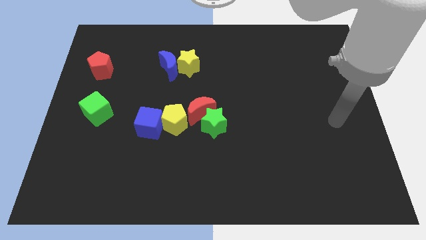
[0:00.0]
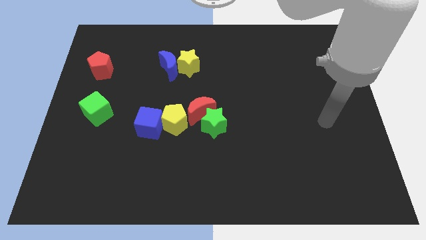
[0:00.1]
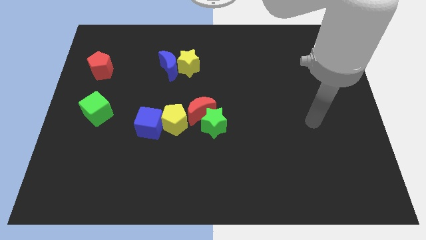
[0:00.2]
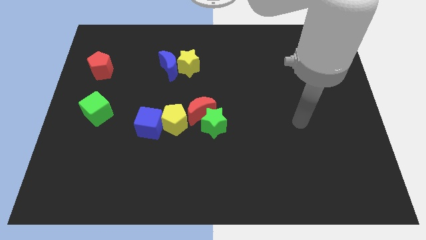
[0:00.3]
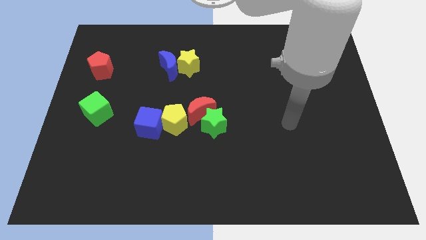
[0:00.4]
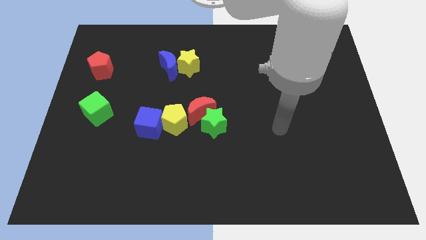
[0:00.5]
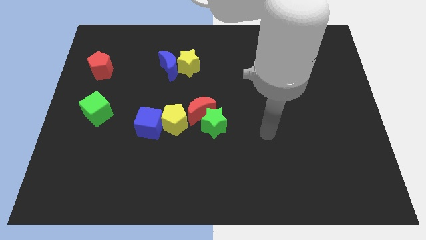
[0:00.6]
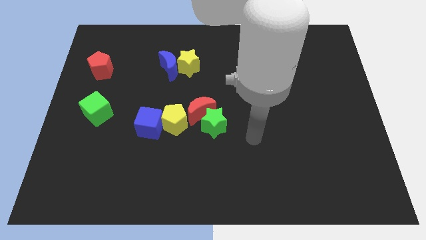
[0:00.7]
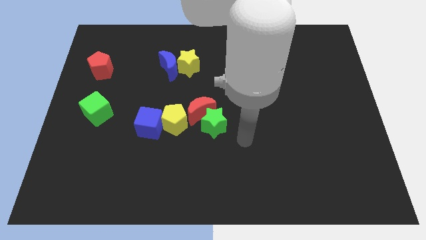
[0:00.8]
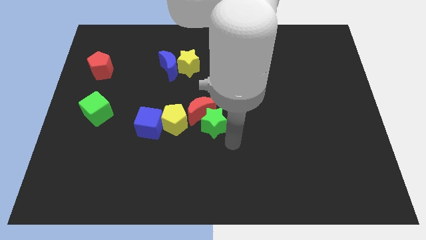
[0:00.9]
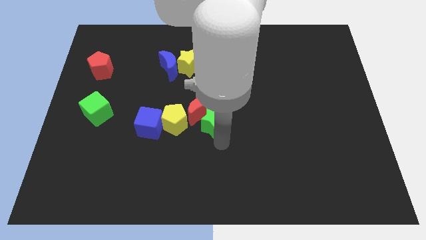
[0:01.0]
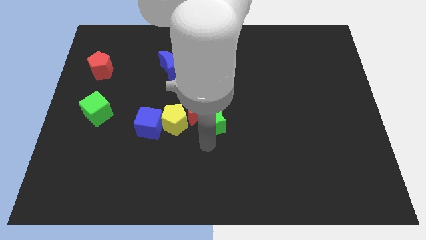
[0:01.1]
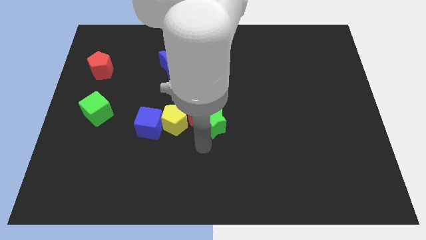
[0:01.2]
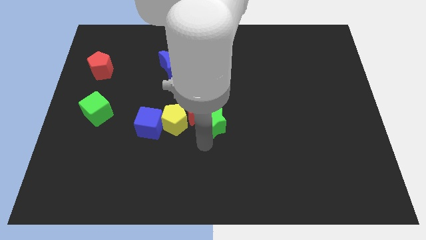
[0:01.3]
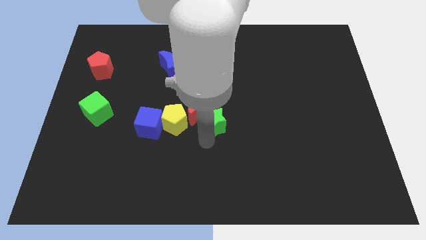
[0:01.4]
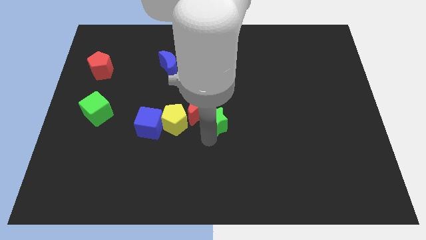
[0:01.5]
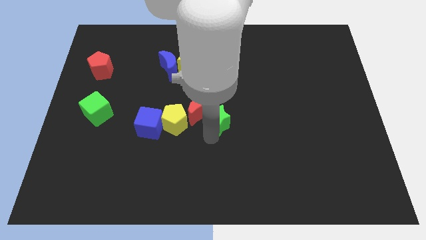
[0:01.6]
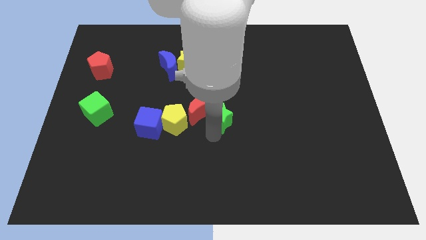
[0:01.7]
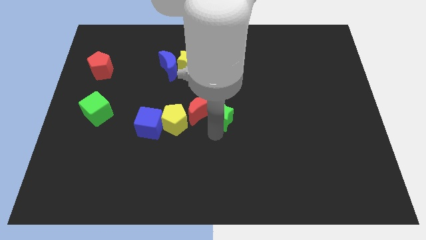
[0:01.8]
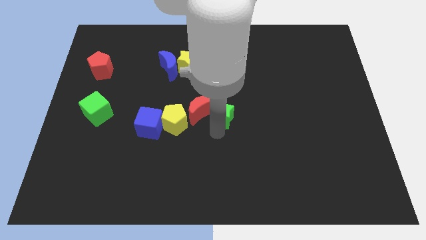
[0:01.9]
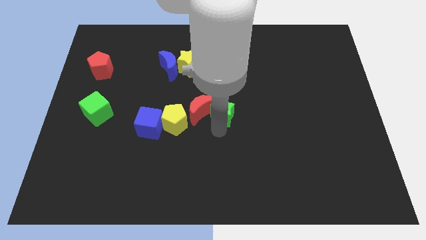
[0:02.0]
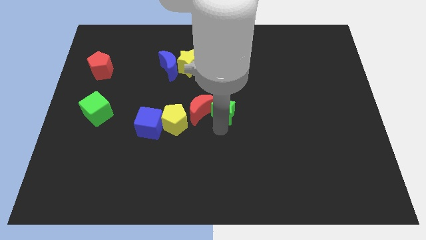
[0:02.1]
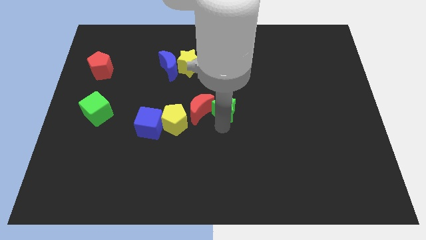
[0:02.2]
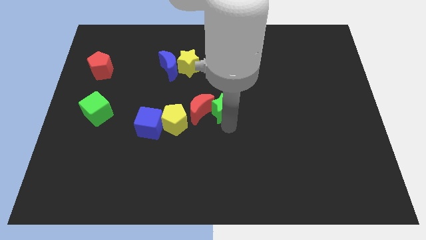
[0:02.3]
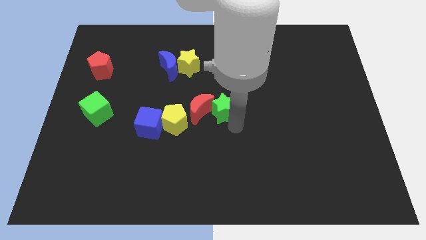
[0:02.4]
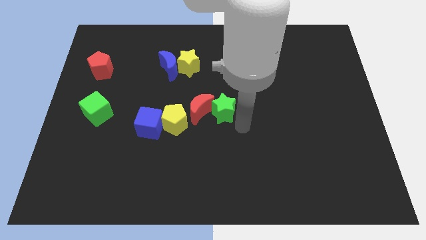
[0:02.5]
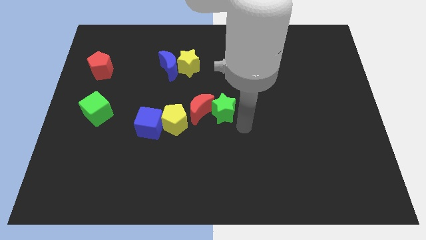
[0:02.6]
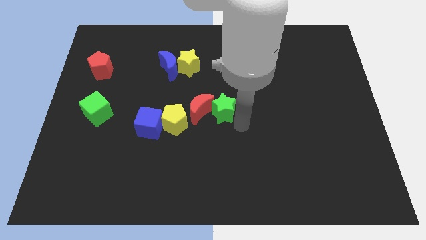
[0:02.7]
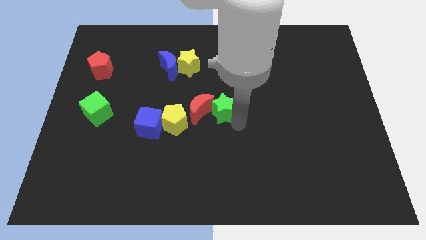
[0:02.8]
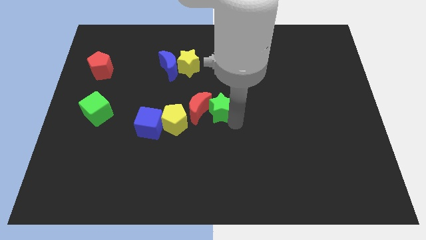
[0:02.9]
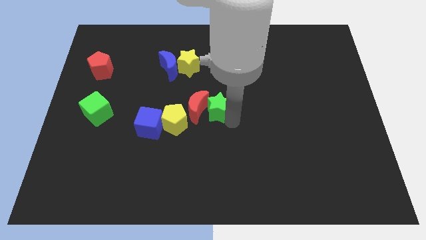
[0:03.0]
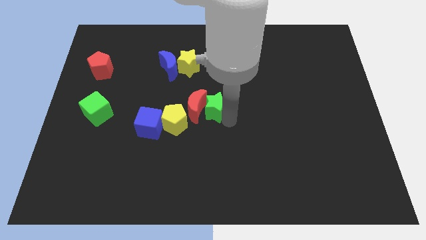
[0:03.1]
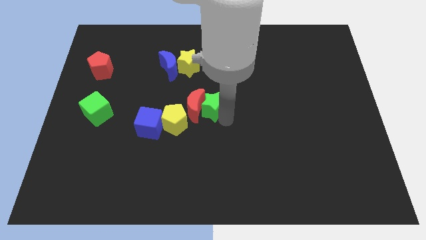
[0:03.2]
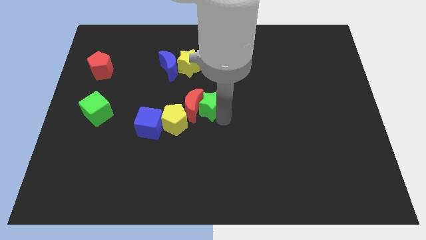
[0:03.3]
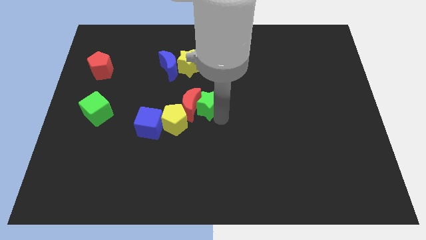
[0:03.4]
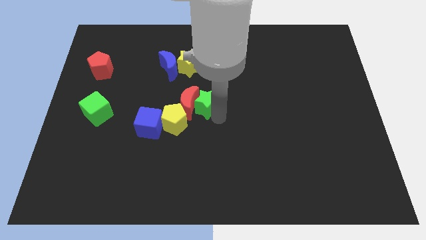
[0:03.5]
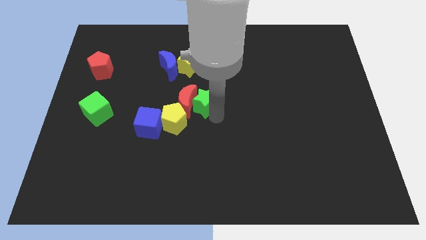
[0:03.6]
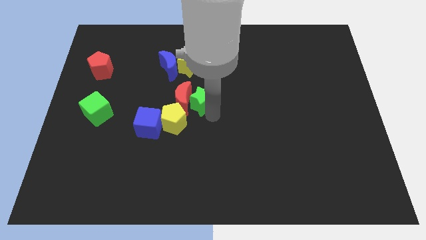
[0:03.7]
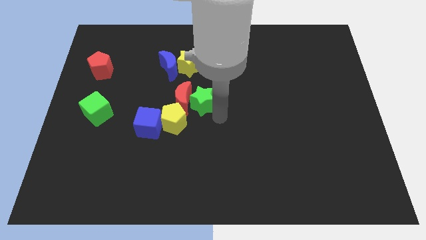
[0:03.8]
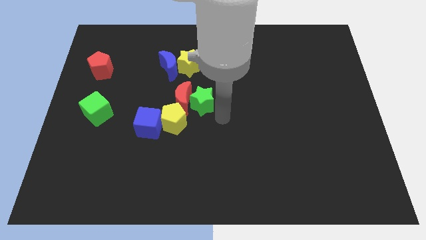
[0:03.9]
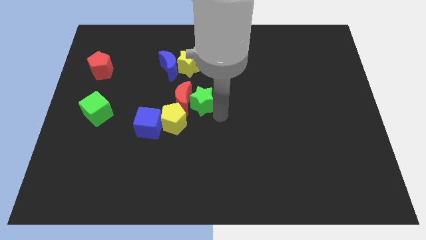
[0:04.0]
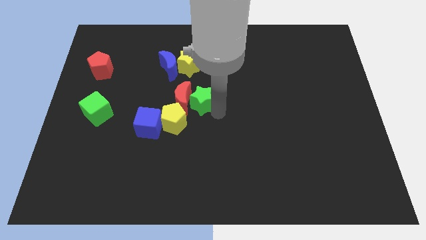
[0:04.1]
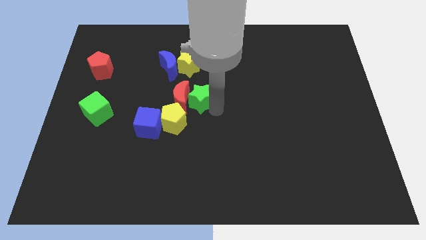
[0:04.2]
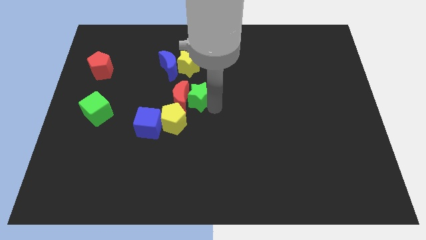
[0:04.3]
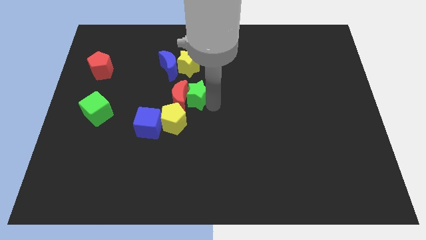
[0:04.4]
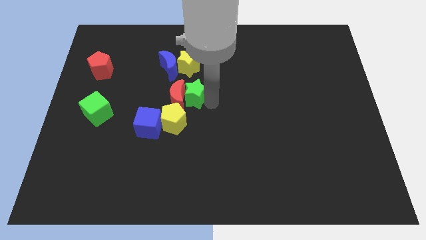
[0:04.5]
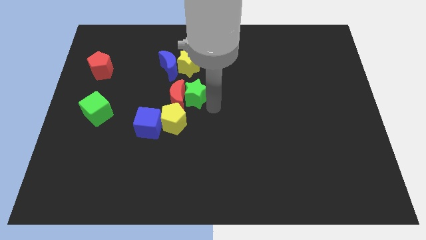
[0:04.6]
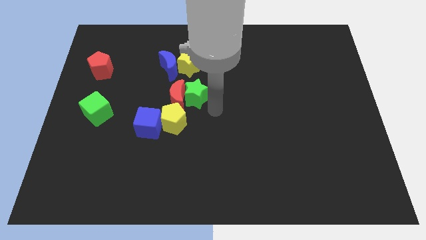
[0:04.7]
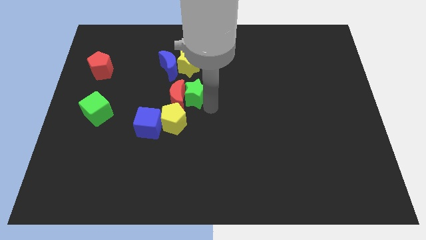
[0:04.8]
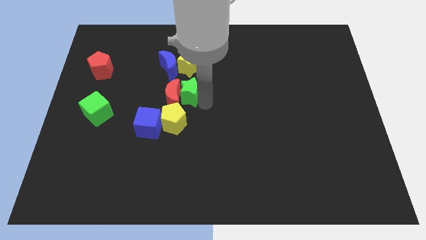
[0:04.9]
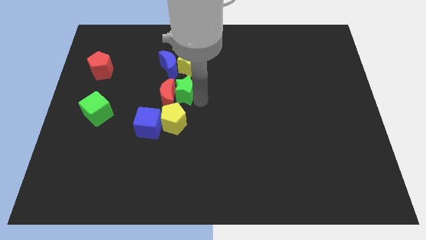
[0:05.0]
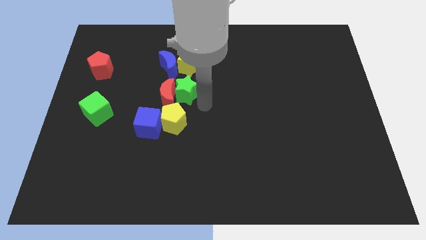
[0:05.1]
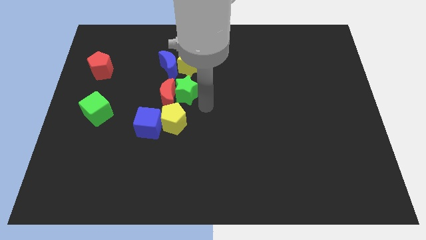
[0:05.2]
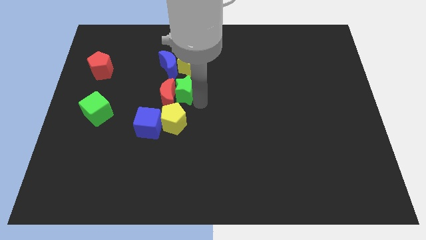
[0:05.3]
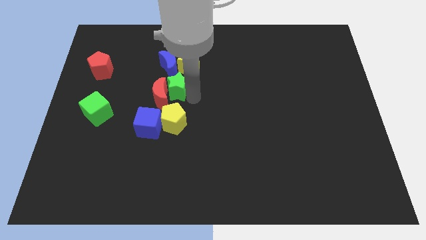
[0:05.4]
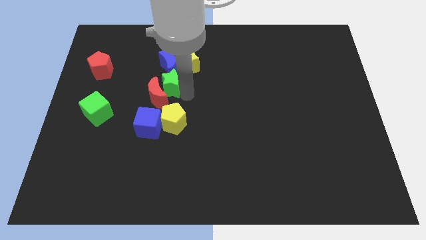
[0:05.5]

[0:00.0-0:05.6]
move the green star to the blue moon

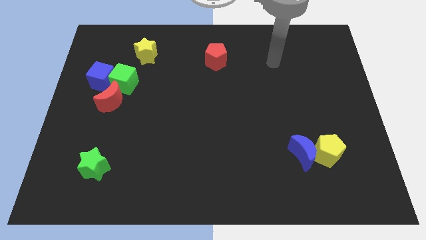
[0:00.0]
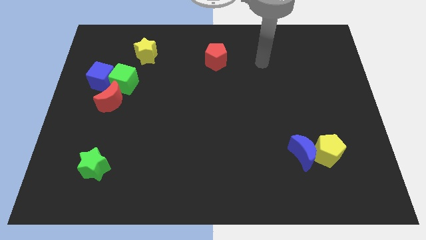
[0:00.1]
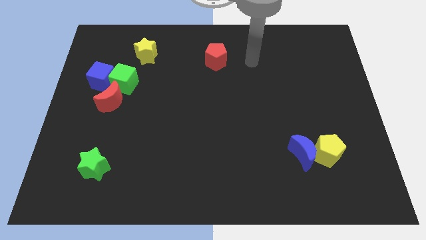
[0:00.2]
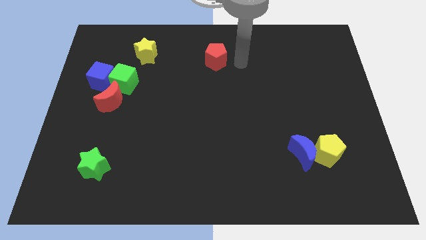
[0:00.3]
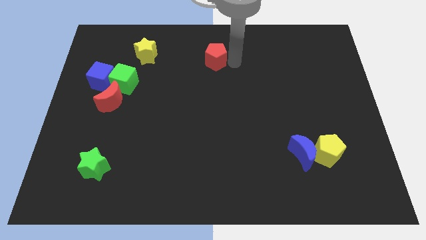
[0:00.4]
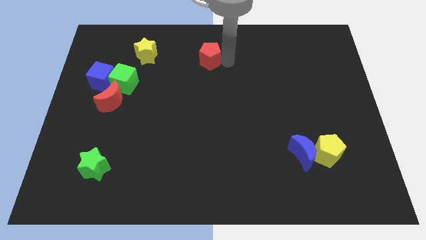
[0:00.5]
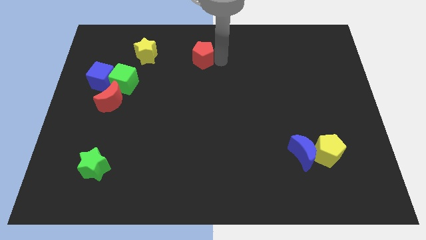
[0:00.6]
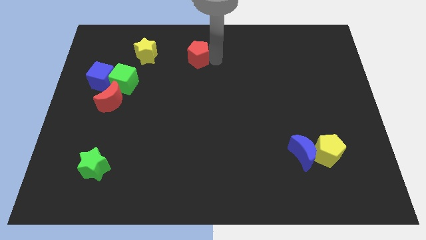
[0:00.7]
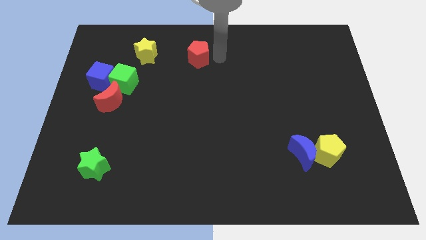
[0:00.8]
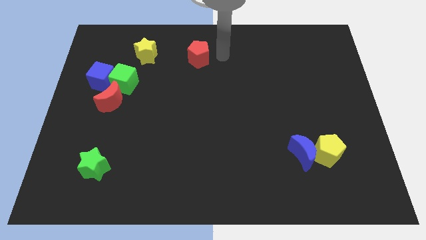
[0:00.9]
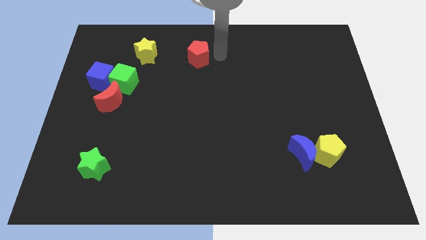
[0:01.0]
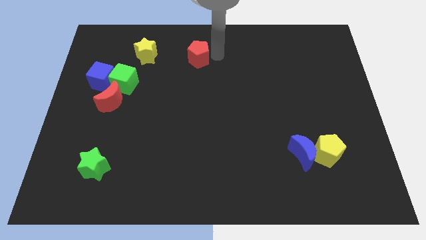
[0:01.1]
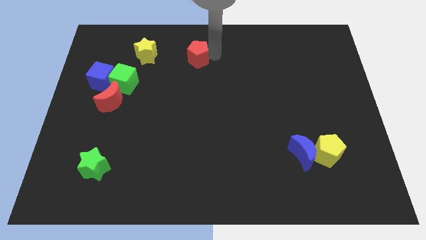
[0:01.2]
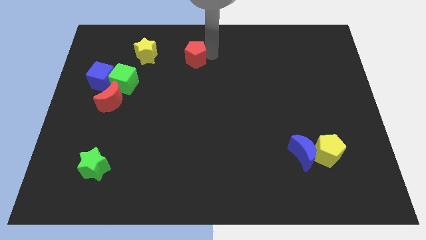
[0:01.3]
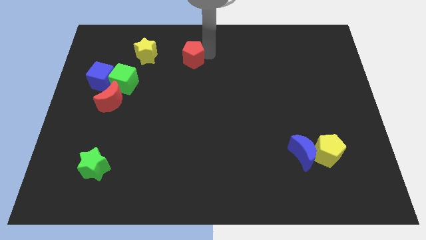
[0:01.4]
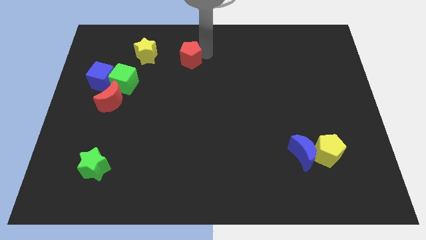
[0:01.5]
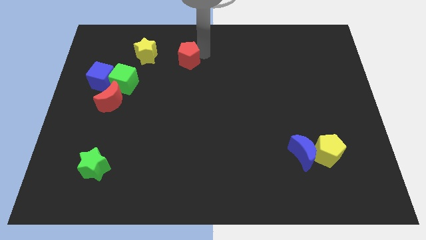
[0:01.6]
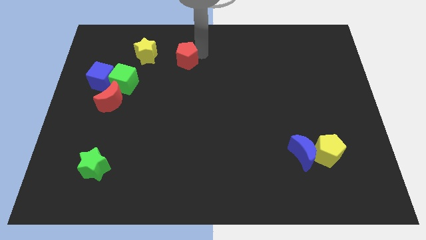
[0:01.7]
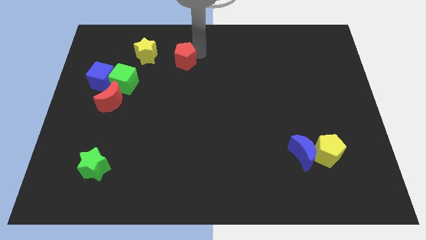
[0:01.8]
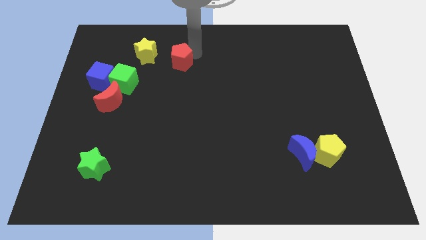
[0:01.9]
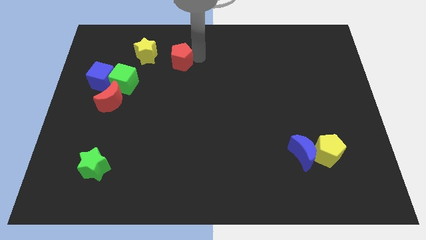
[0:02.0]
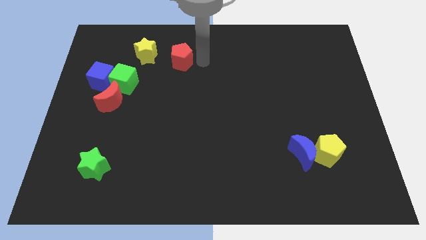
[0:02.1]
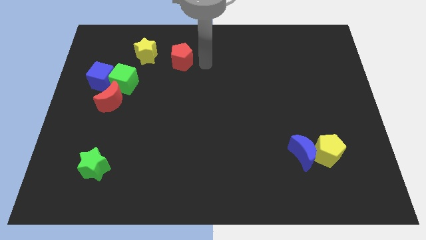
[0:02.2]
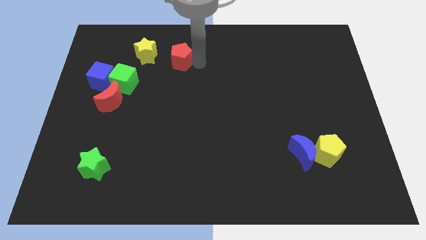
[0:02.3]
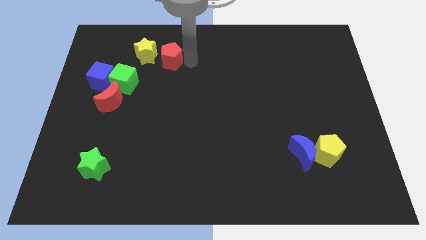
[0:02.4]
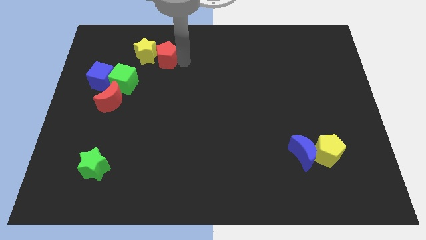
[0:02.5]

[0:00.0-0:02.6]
put the red pentagon close to the yellow star
